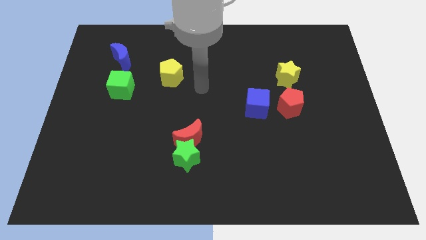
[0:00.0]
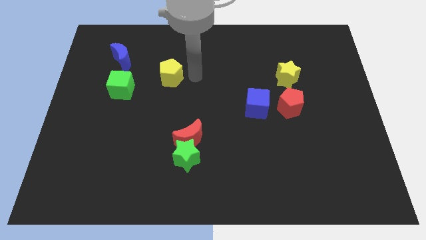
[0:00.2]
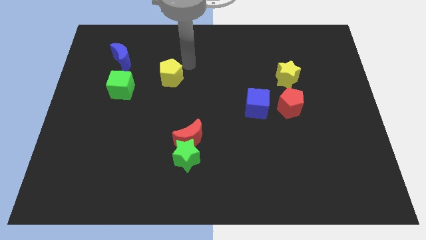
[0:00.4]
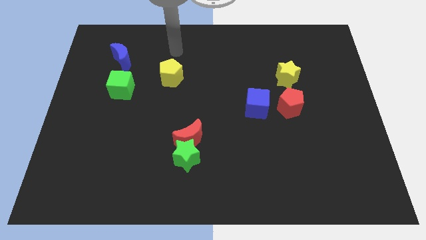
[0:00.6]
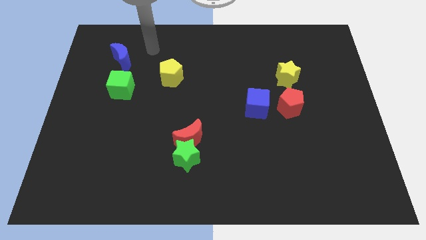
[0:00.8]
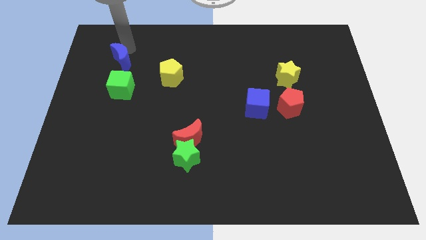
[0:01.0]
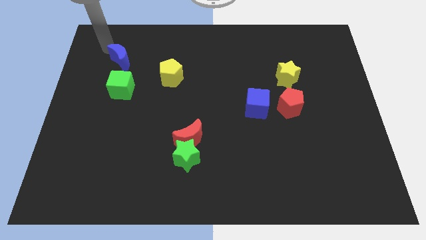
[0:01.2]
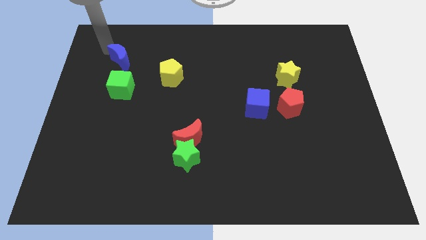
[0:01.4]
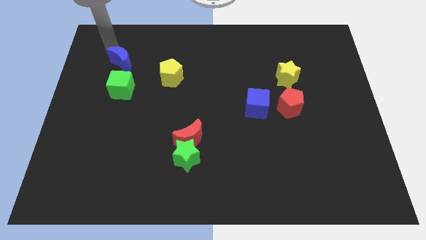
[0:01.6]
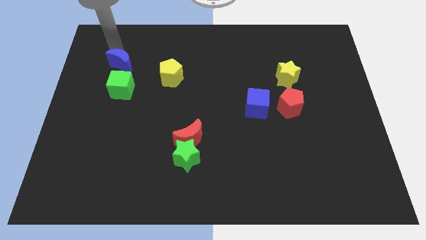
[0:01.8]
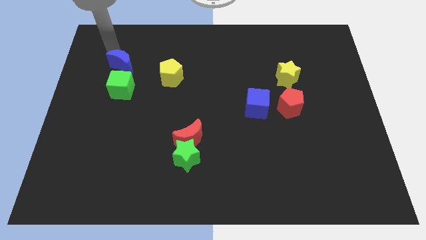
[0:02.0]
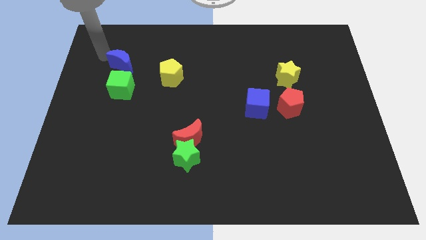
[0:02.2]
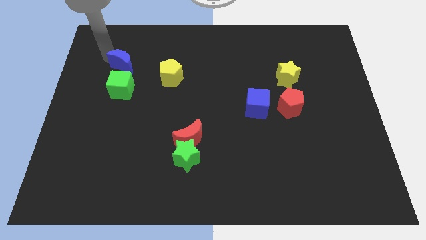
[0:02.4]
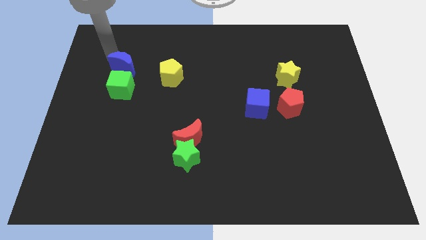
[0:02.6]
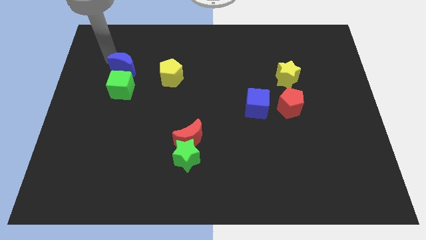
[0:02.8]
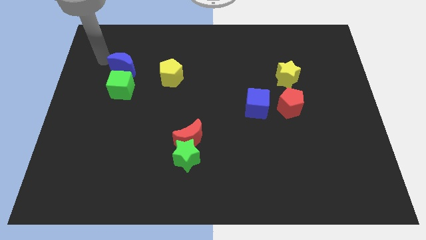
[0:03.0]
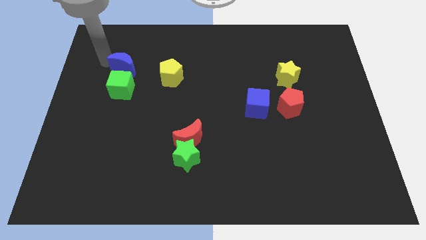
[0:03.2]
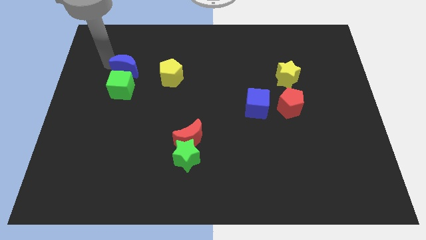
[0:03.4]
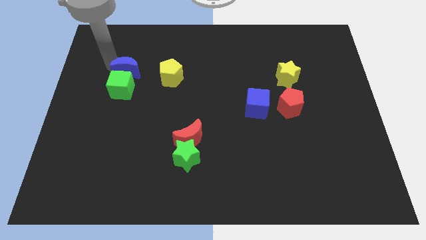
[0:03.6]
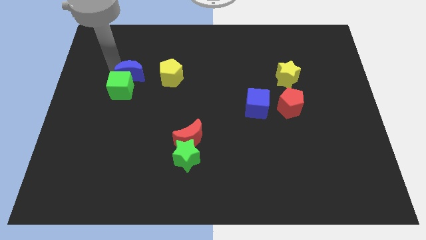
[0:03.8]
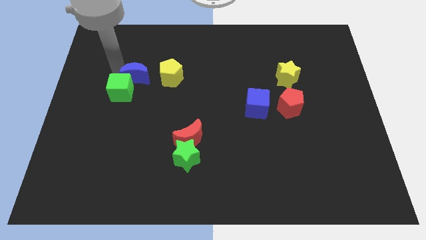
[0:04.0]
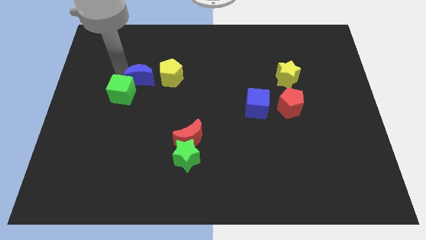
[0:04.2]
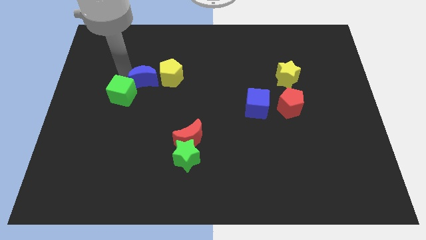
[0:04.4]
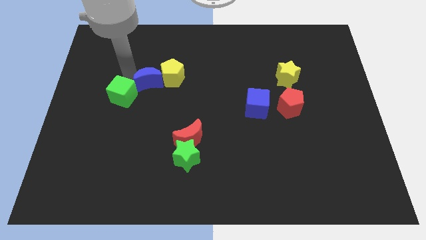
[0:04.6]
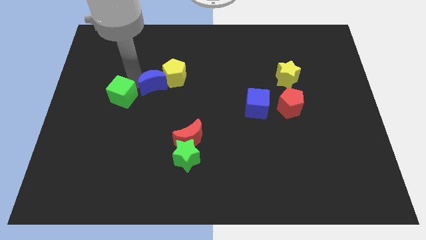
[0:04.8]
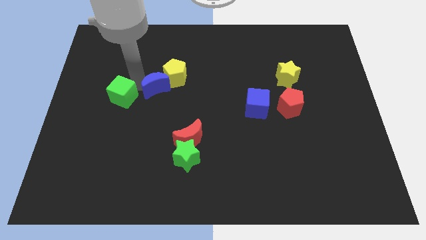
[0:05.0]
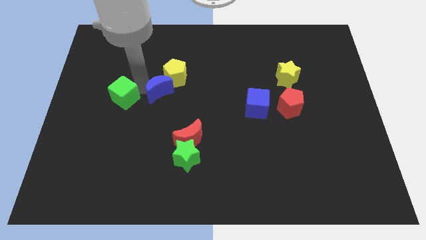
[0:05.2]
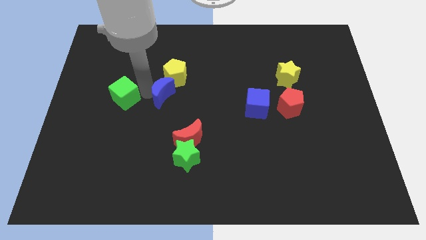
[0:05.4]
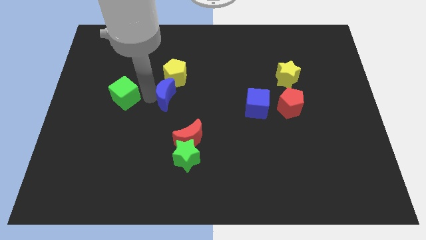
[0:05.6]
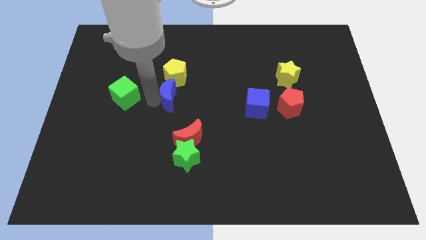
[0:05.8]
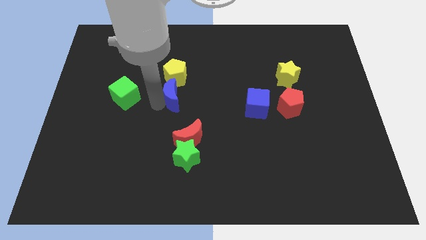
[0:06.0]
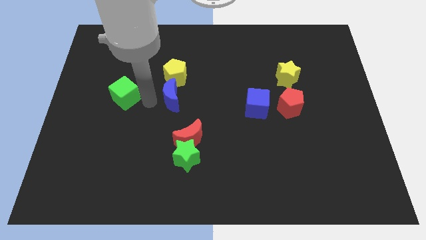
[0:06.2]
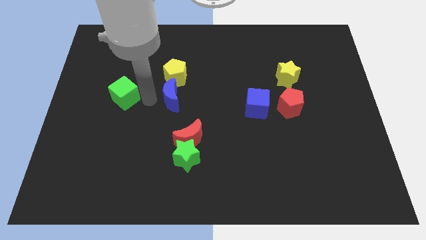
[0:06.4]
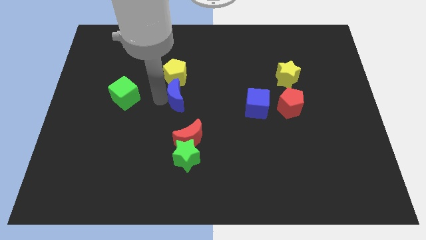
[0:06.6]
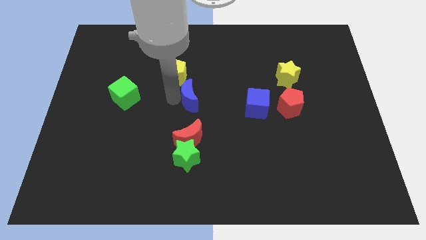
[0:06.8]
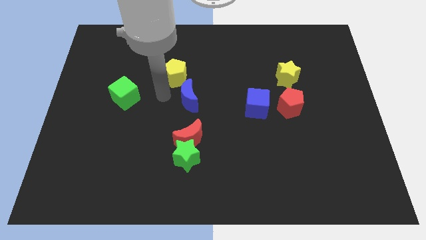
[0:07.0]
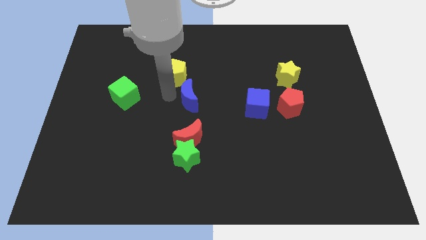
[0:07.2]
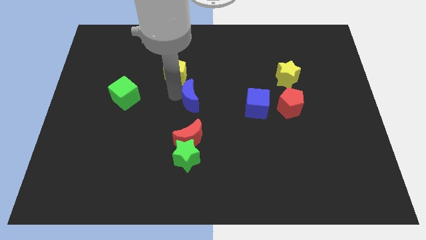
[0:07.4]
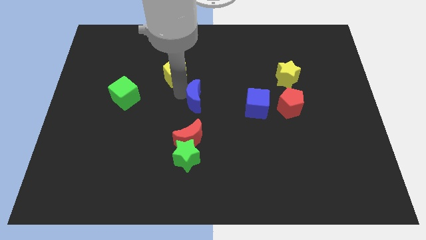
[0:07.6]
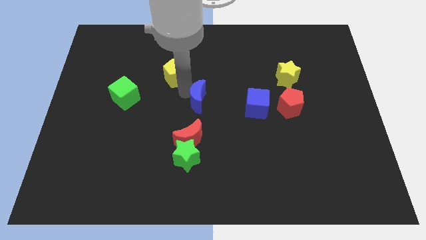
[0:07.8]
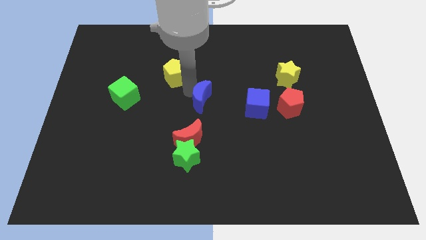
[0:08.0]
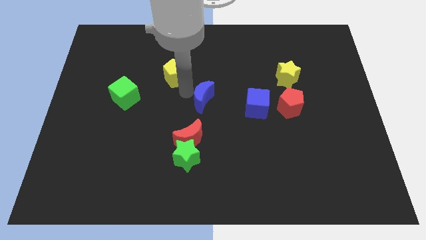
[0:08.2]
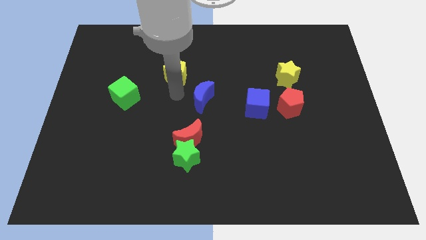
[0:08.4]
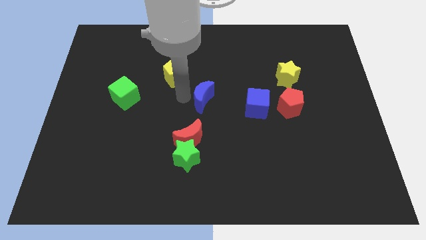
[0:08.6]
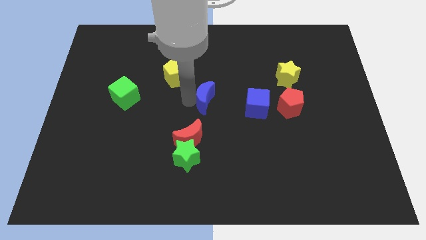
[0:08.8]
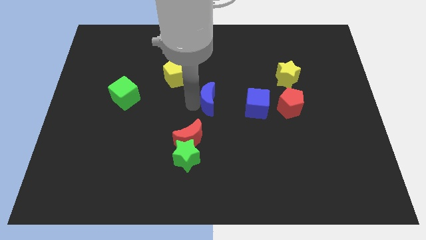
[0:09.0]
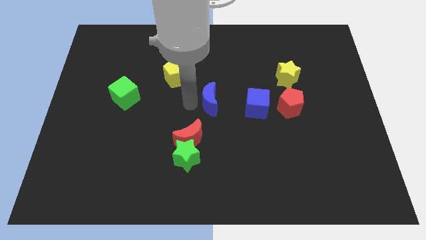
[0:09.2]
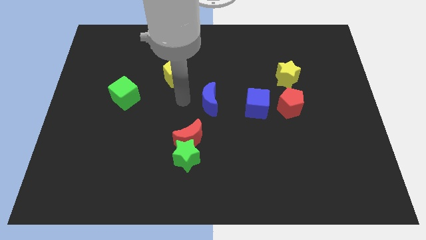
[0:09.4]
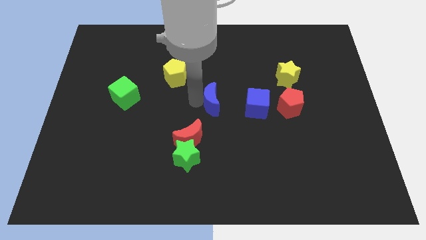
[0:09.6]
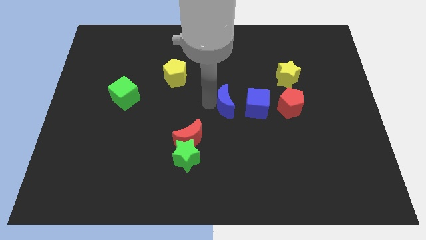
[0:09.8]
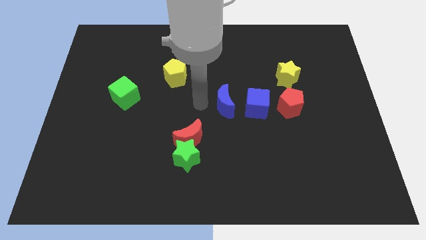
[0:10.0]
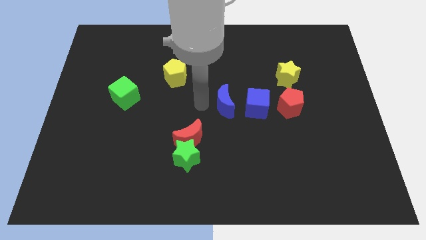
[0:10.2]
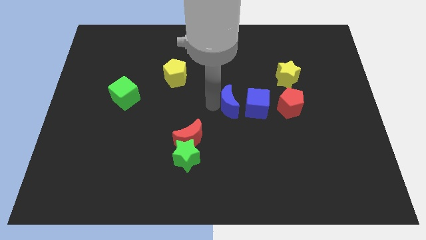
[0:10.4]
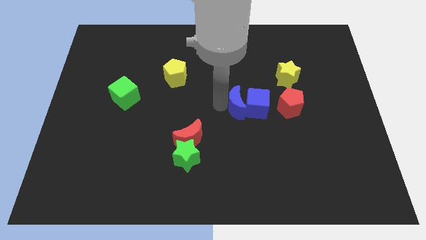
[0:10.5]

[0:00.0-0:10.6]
slide the blue moon close to the blue cube
